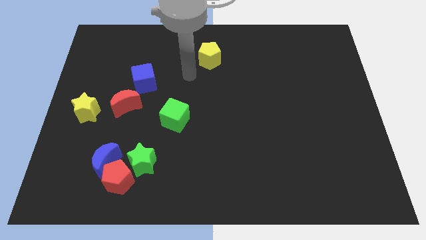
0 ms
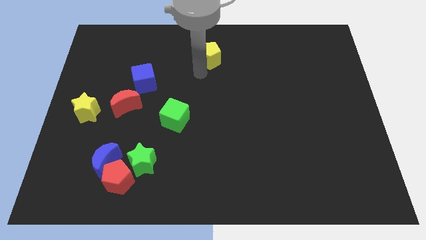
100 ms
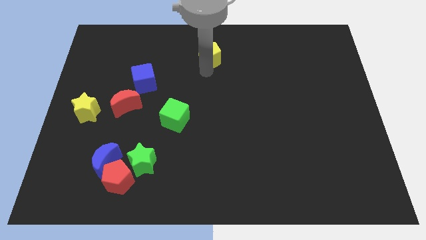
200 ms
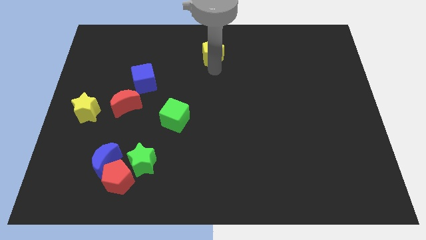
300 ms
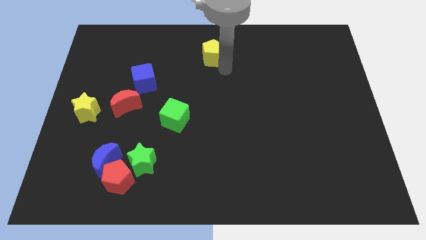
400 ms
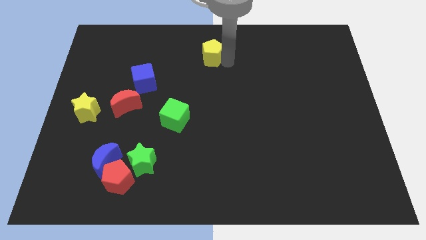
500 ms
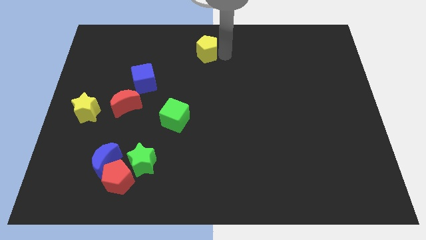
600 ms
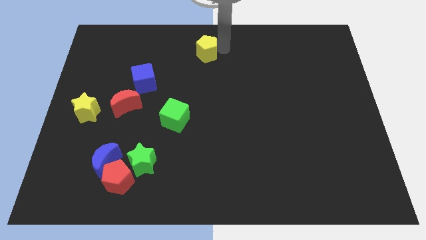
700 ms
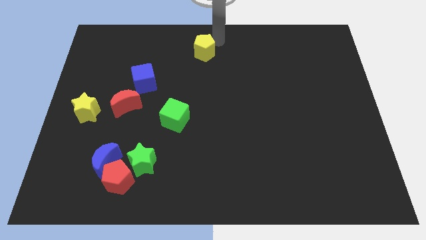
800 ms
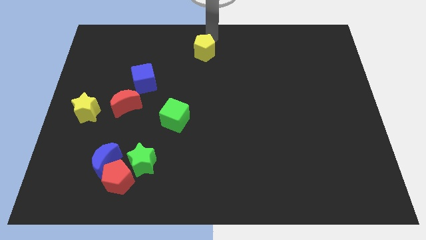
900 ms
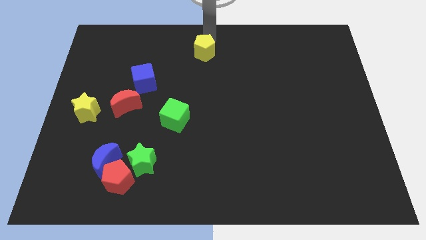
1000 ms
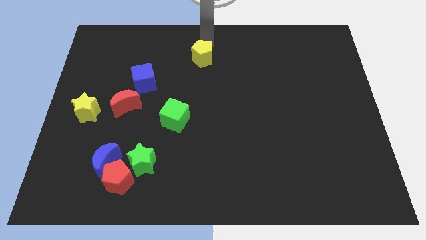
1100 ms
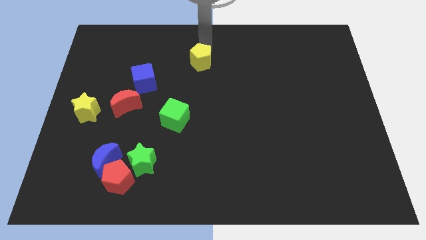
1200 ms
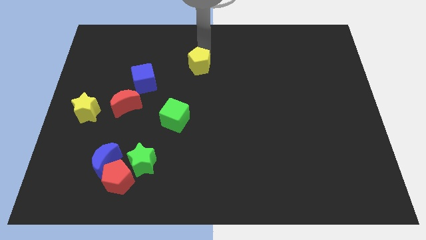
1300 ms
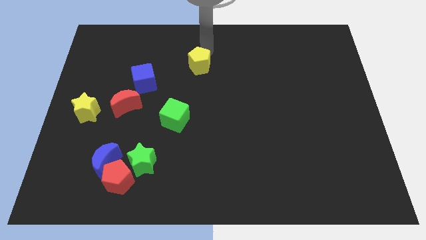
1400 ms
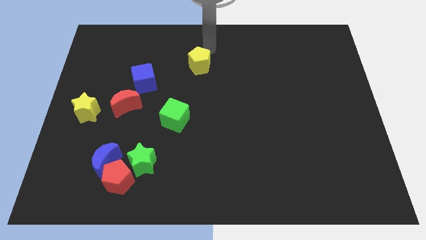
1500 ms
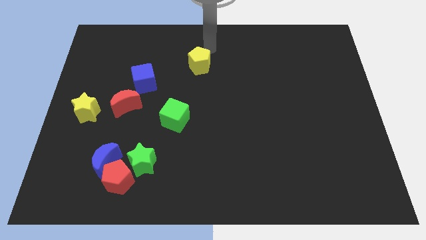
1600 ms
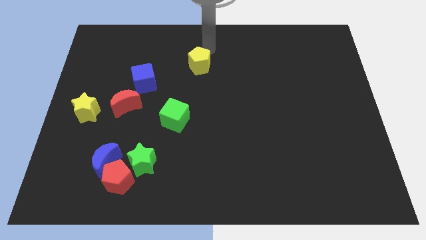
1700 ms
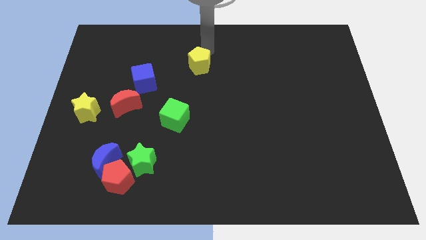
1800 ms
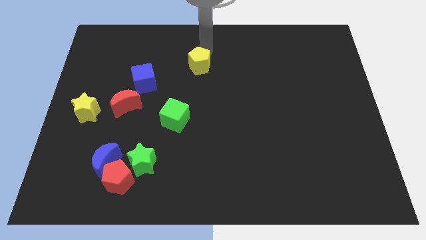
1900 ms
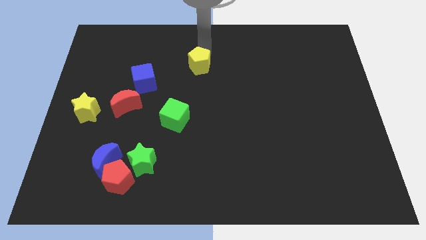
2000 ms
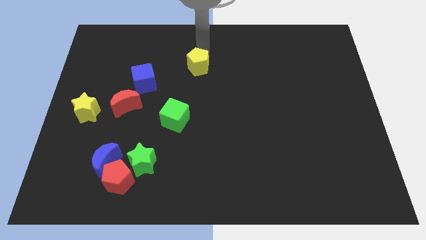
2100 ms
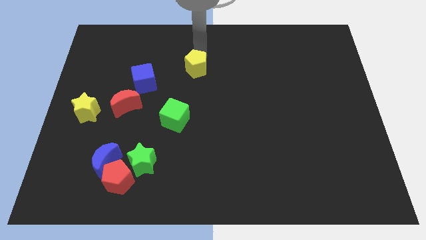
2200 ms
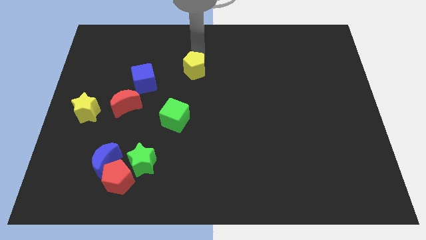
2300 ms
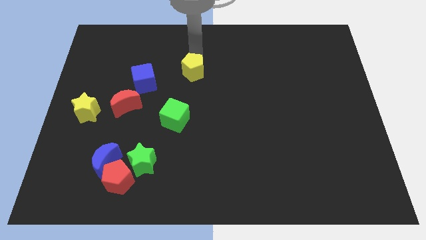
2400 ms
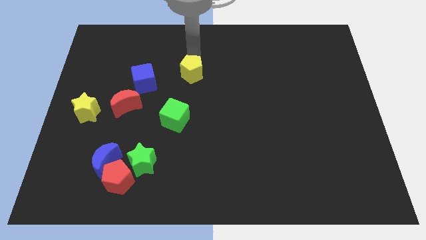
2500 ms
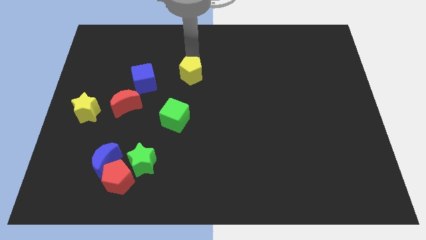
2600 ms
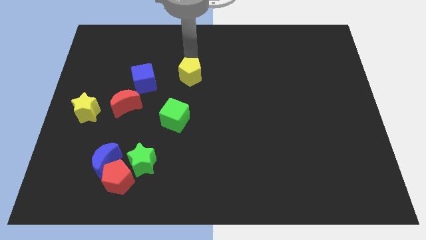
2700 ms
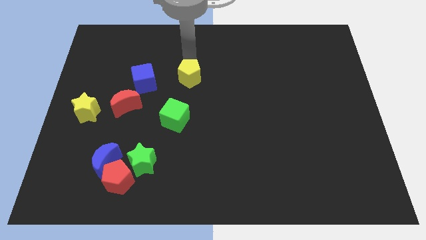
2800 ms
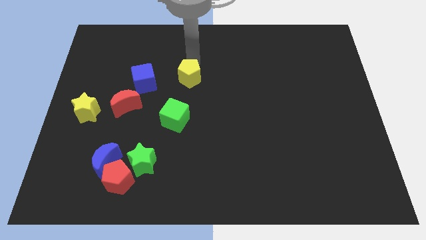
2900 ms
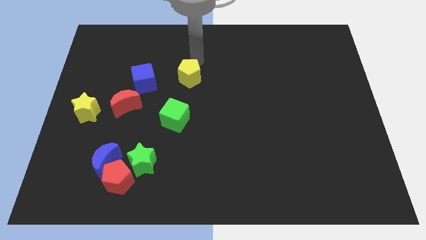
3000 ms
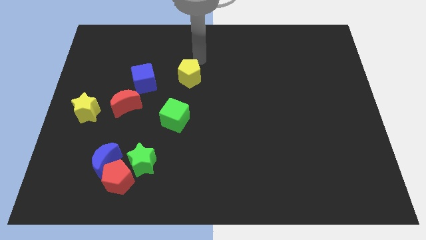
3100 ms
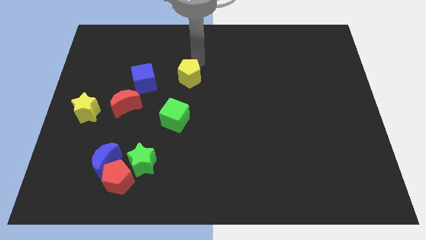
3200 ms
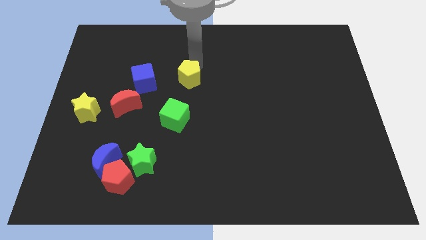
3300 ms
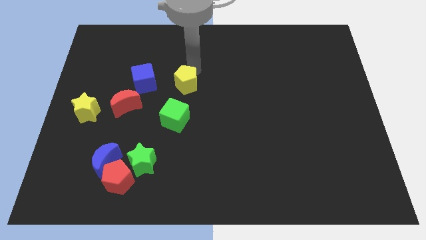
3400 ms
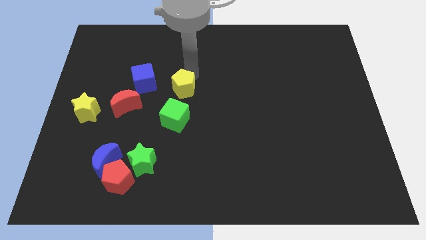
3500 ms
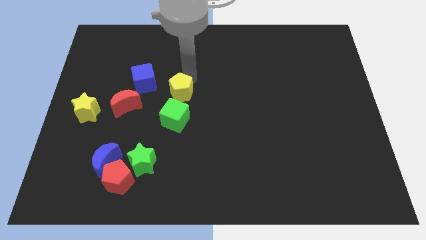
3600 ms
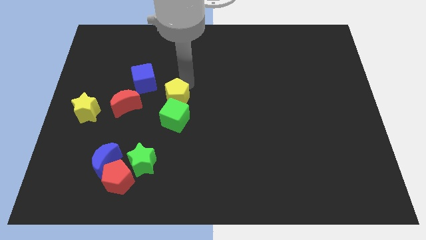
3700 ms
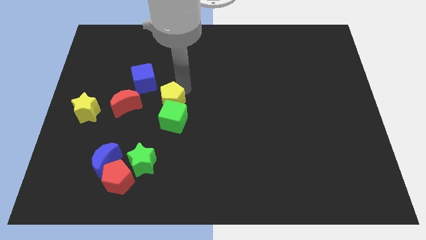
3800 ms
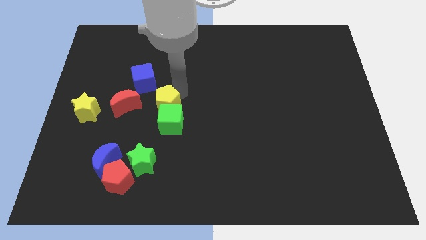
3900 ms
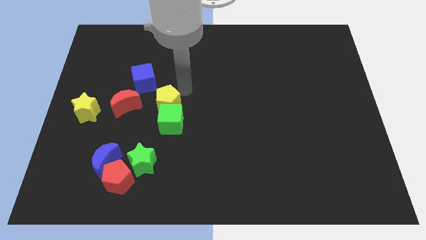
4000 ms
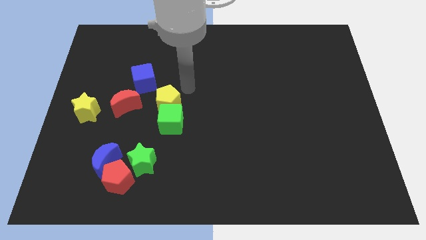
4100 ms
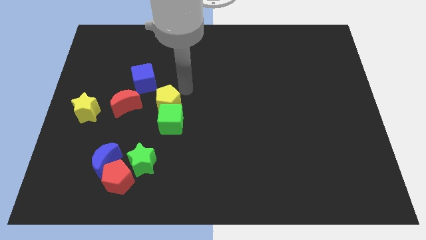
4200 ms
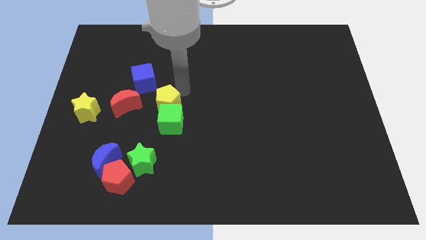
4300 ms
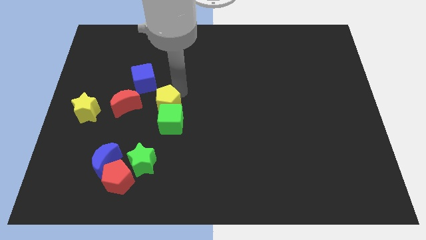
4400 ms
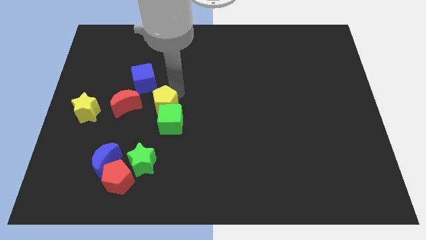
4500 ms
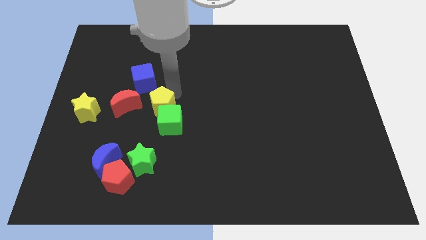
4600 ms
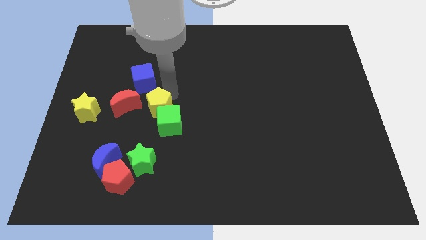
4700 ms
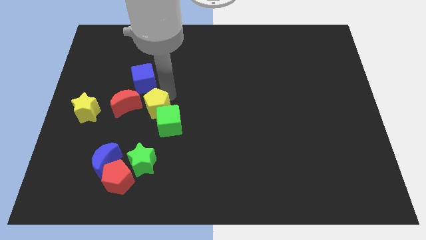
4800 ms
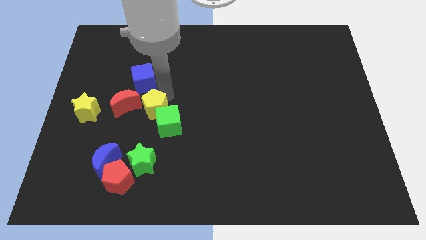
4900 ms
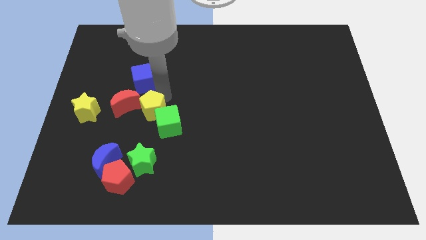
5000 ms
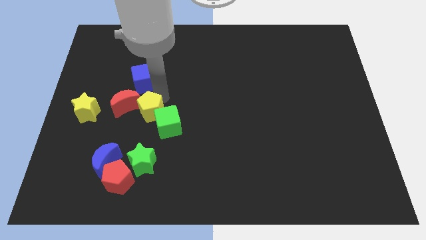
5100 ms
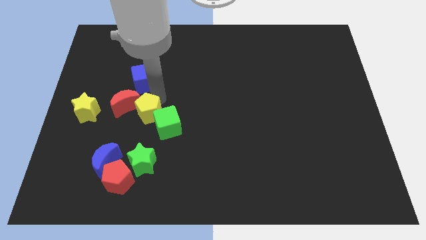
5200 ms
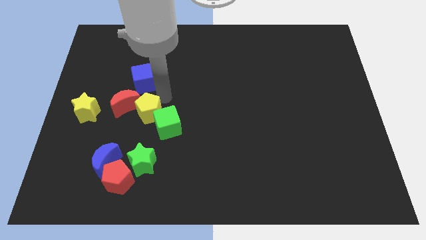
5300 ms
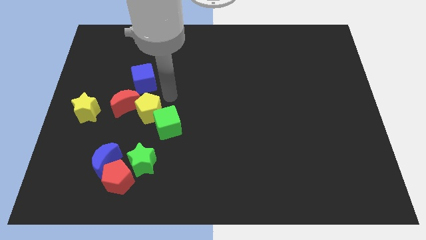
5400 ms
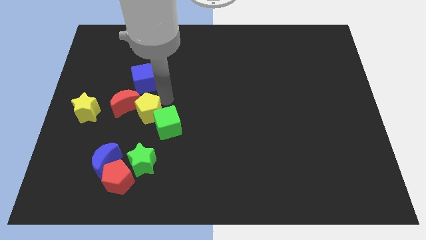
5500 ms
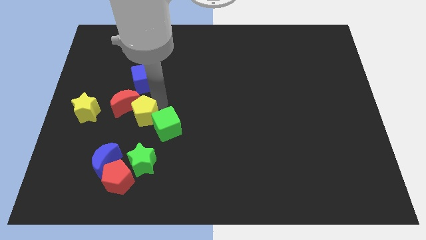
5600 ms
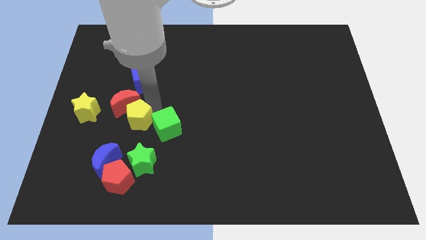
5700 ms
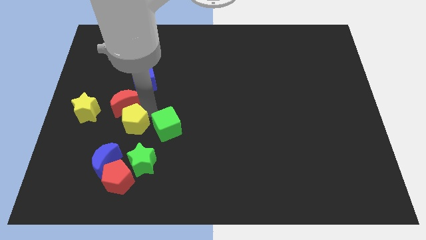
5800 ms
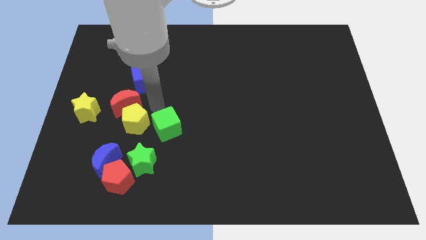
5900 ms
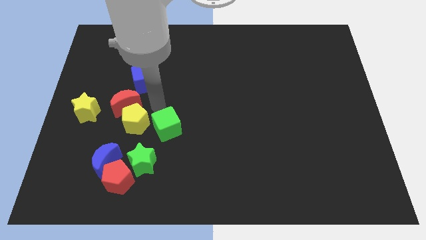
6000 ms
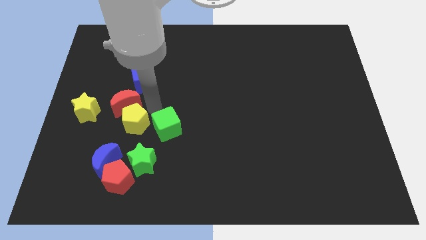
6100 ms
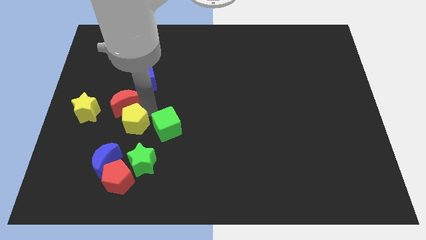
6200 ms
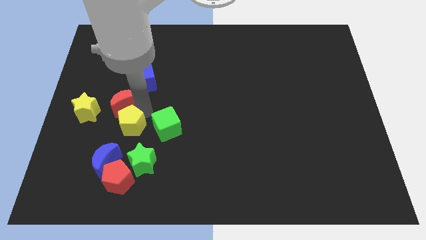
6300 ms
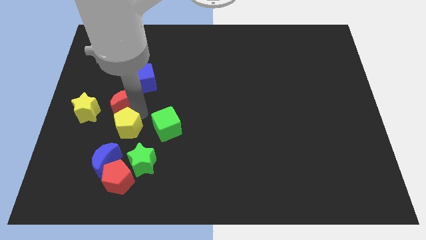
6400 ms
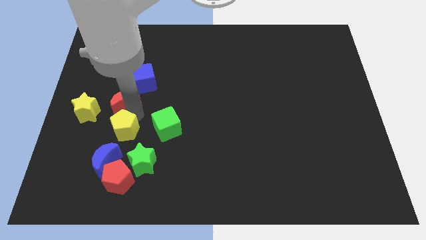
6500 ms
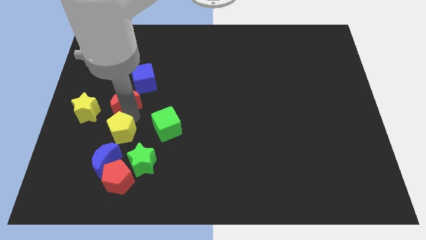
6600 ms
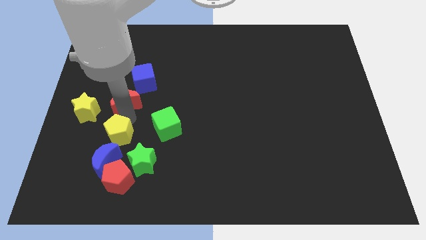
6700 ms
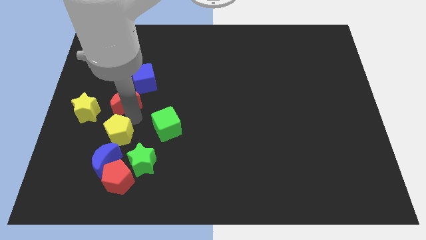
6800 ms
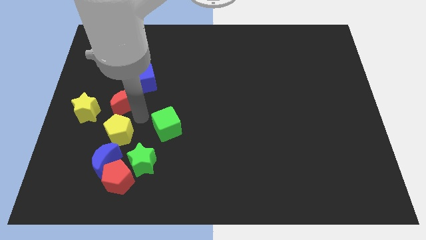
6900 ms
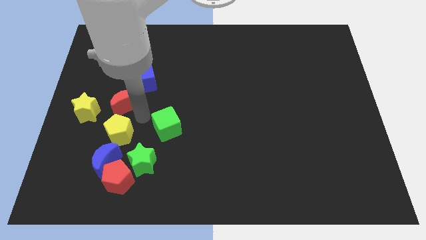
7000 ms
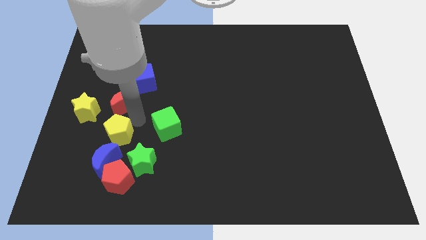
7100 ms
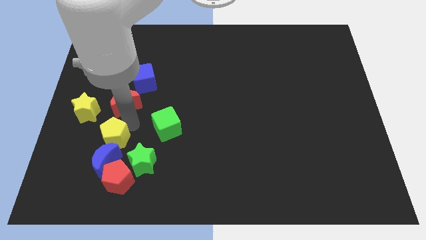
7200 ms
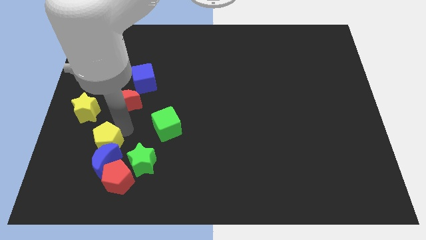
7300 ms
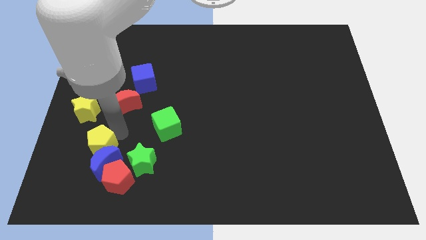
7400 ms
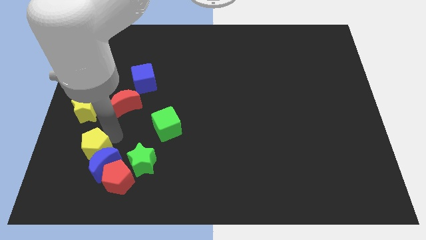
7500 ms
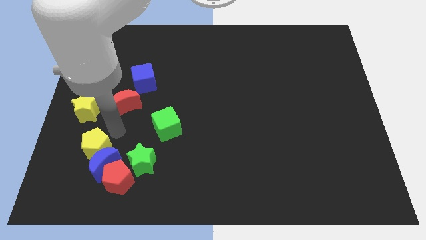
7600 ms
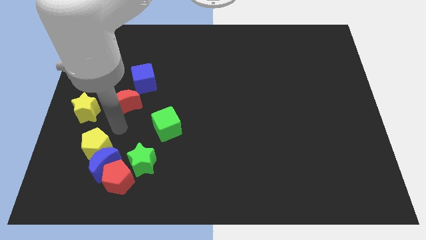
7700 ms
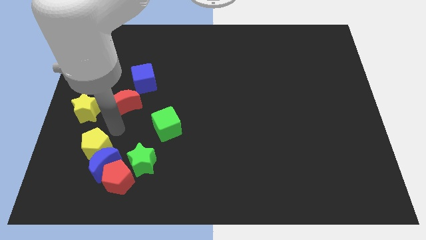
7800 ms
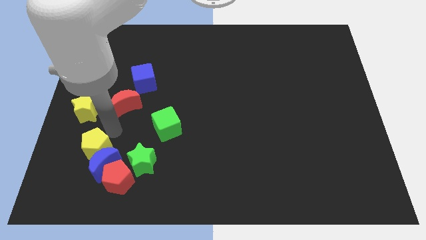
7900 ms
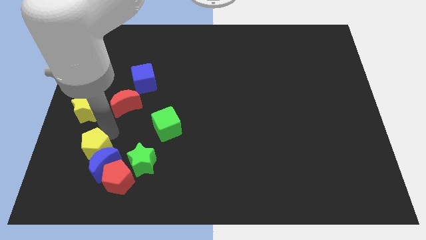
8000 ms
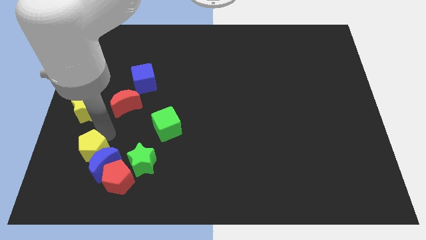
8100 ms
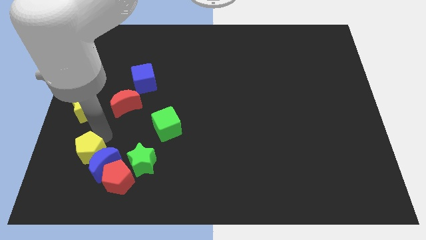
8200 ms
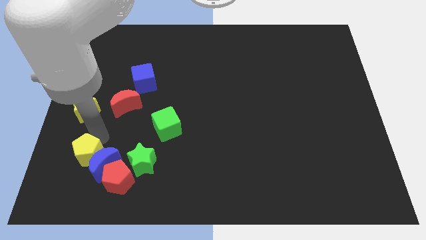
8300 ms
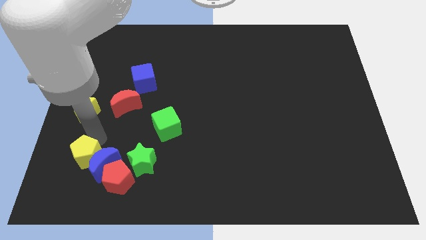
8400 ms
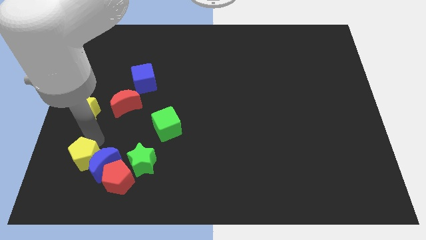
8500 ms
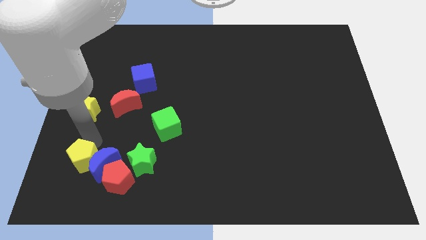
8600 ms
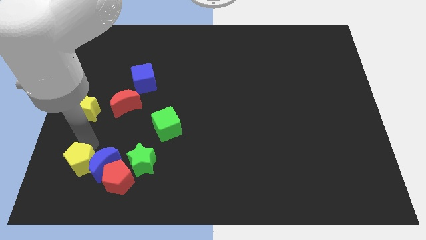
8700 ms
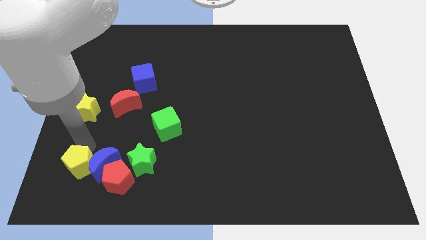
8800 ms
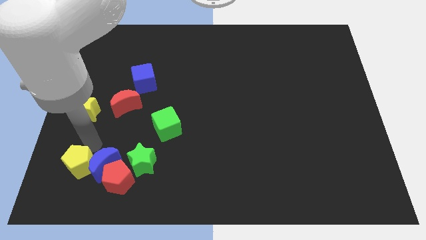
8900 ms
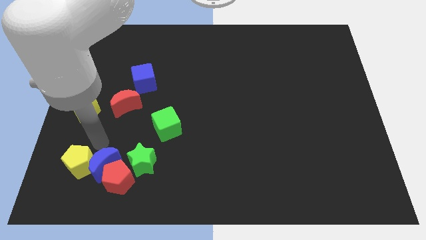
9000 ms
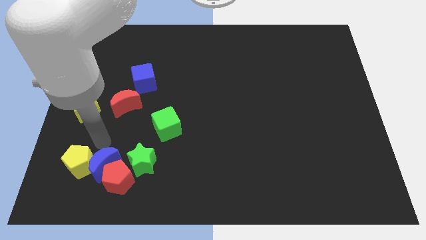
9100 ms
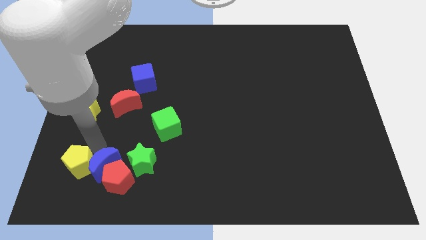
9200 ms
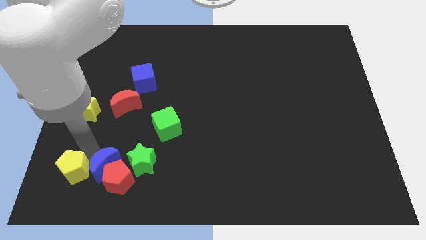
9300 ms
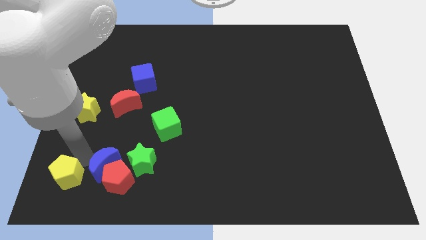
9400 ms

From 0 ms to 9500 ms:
slide the yellow pentagon to the bottom left
